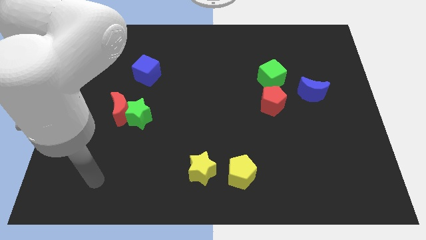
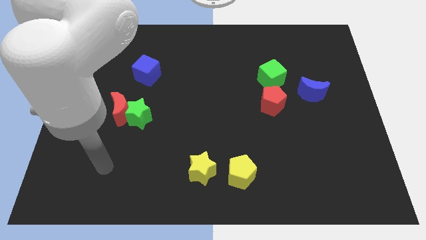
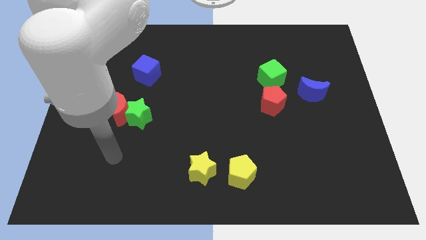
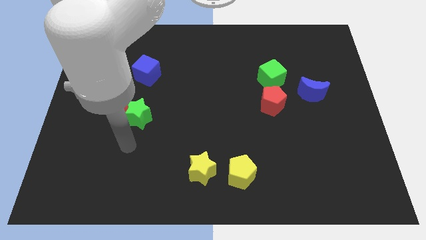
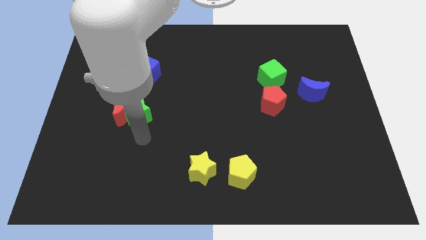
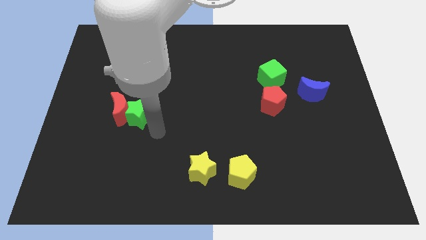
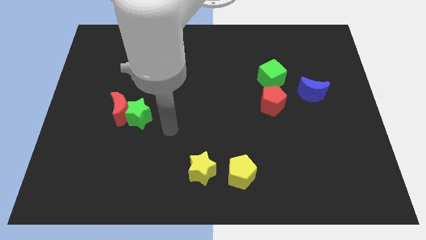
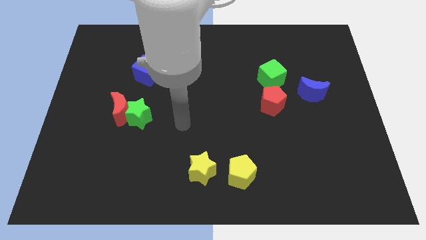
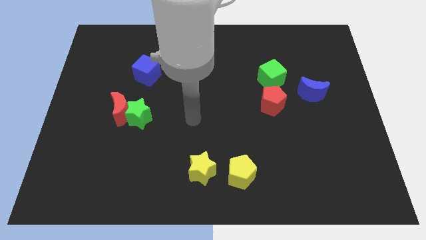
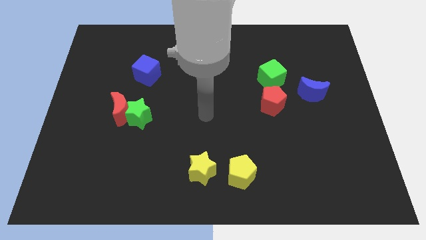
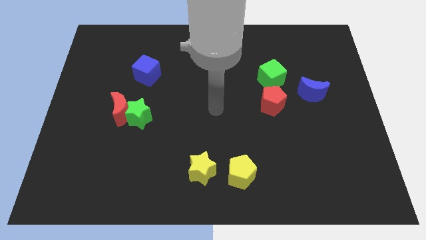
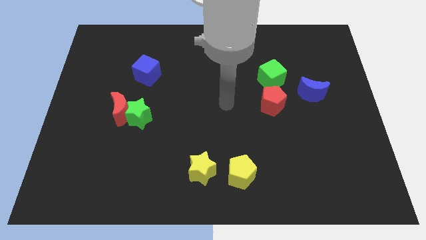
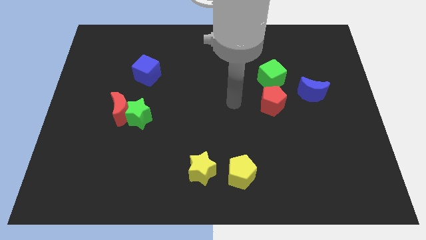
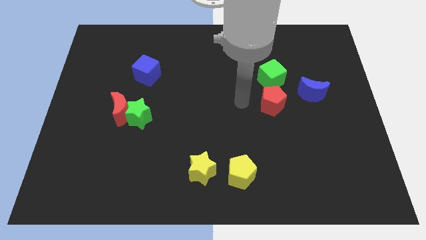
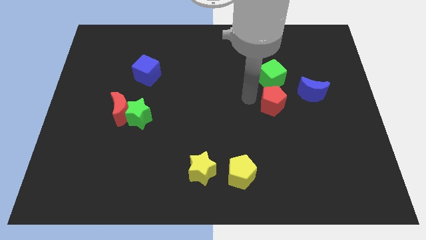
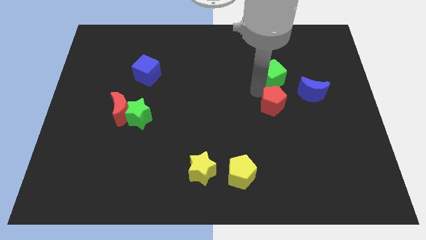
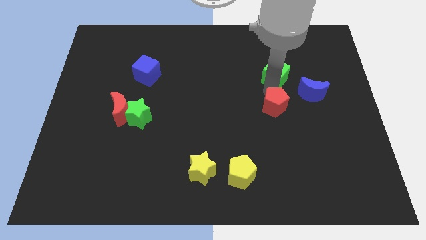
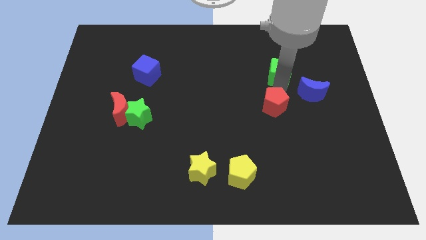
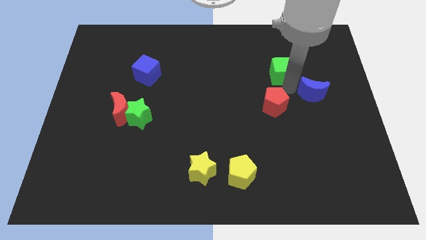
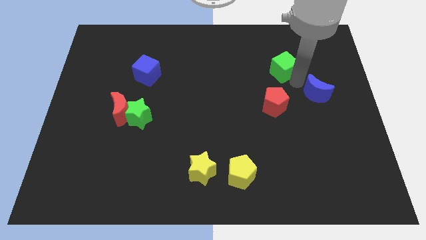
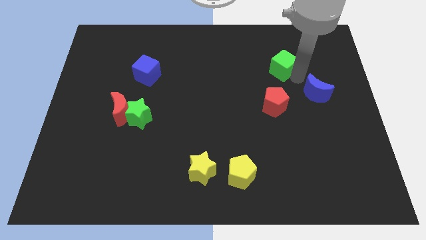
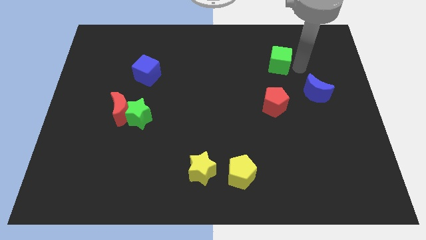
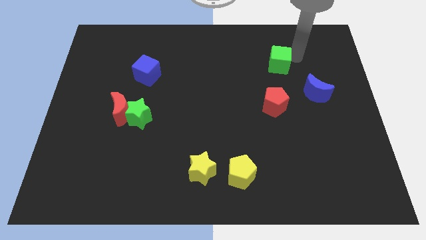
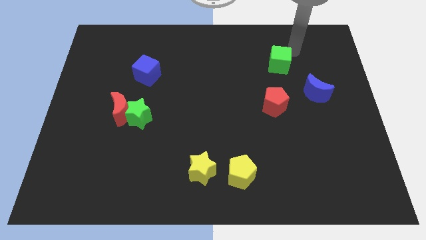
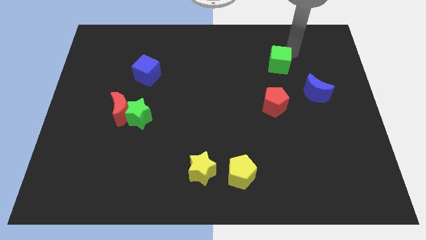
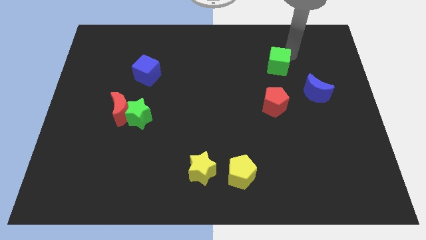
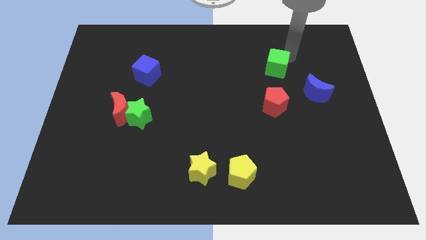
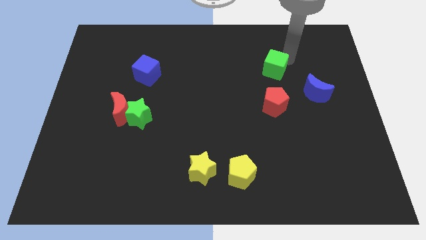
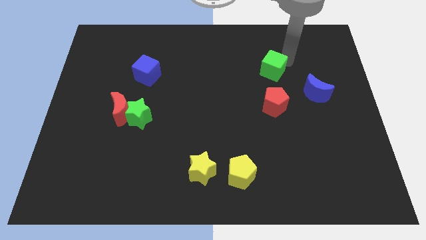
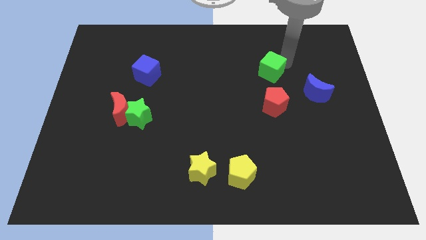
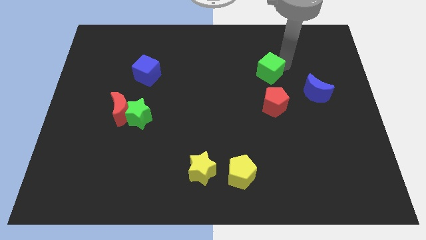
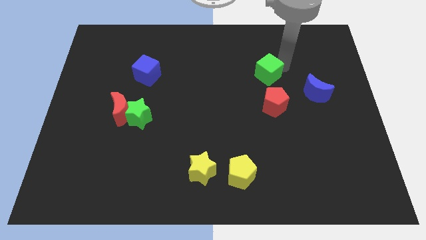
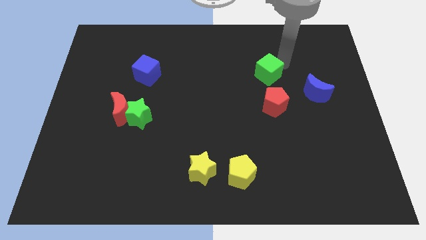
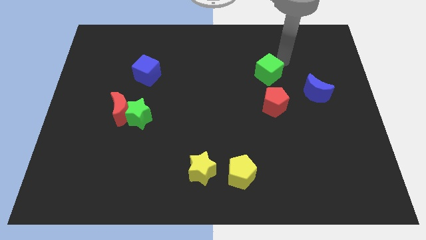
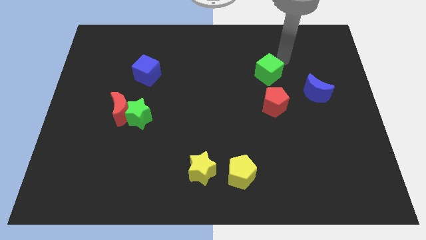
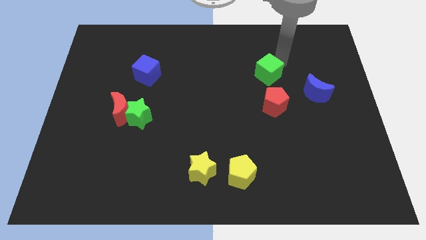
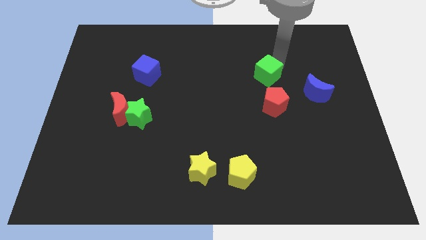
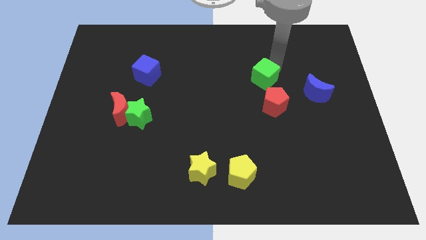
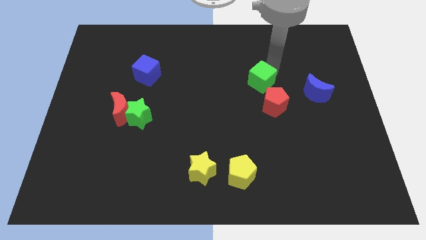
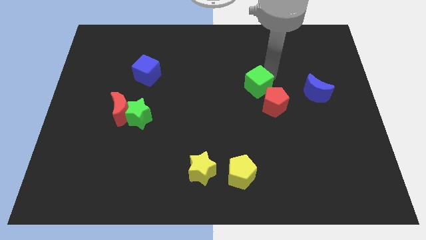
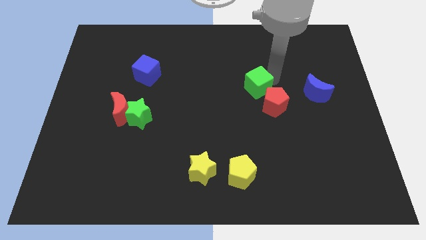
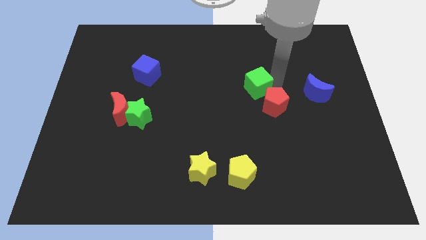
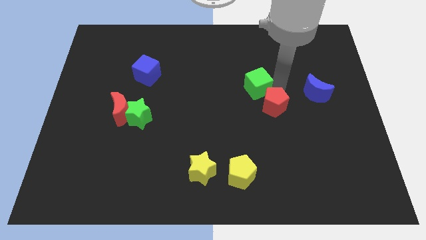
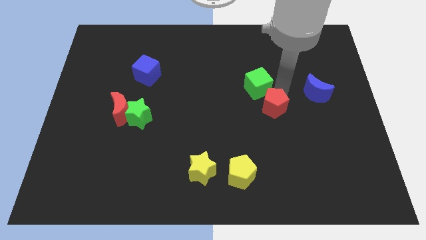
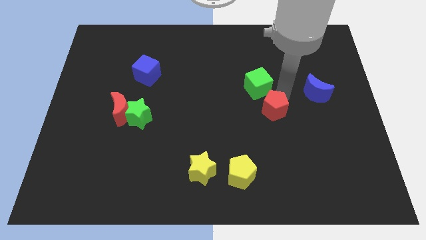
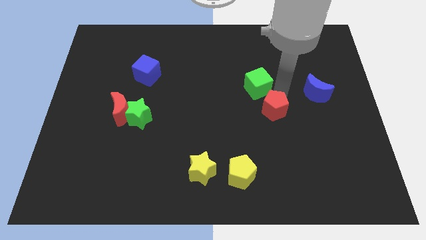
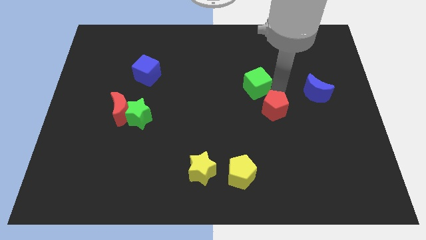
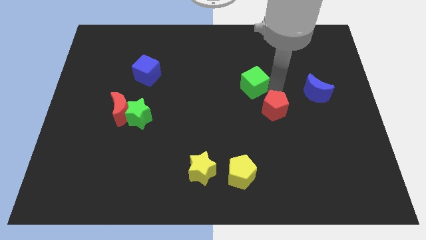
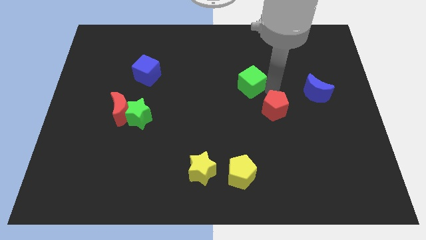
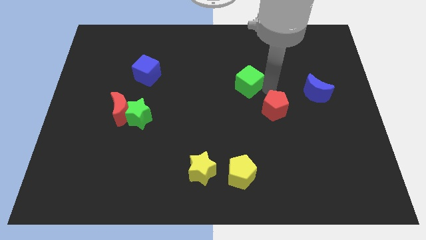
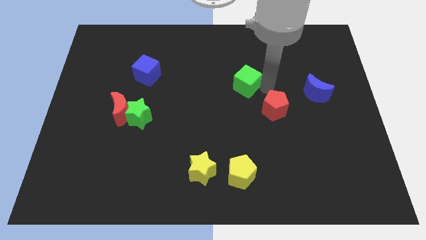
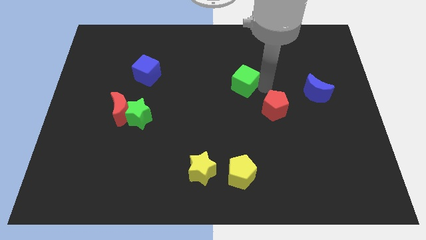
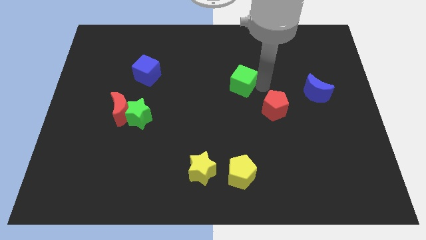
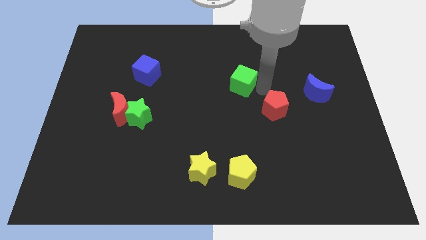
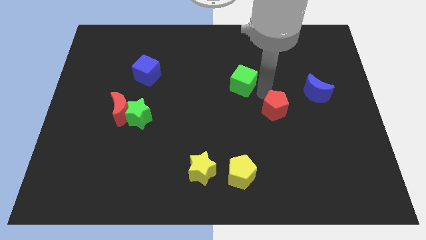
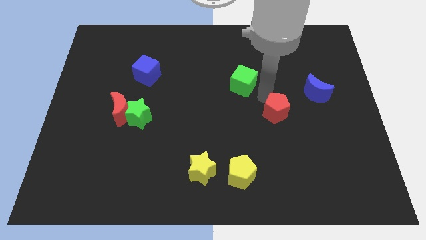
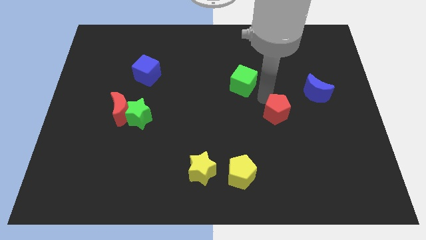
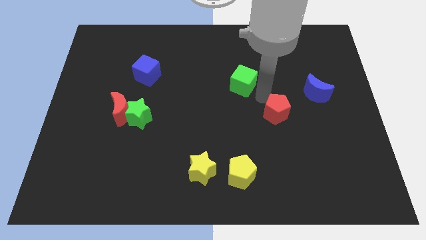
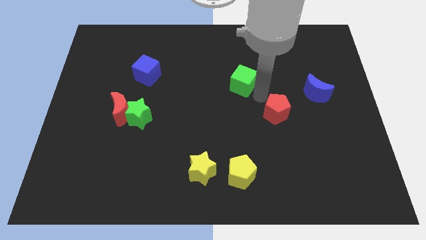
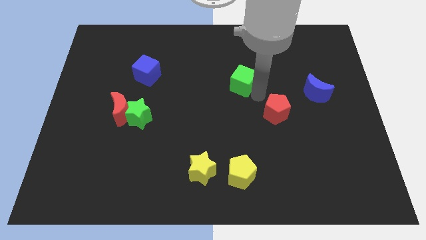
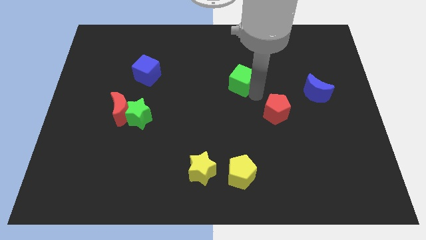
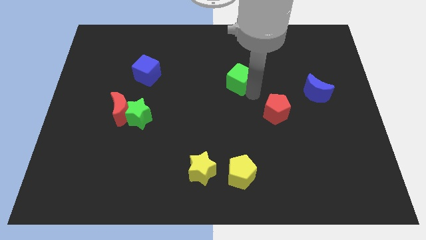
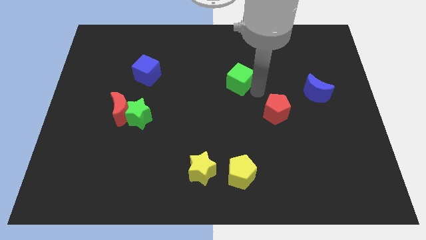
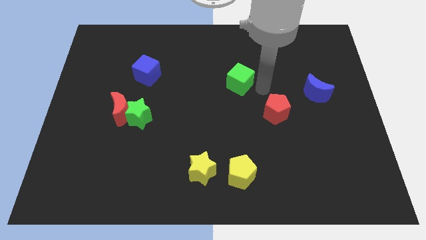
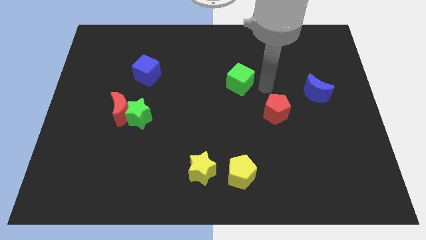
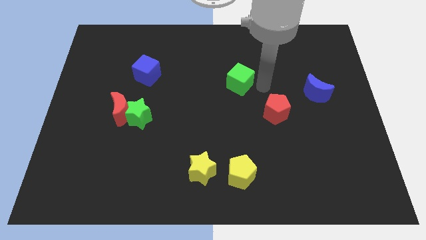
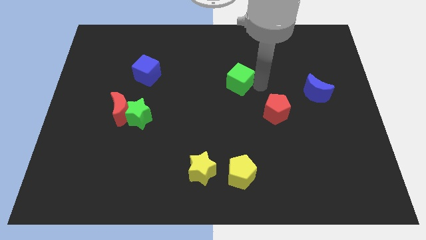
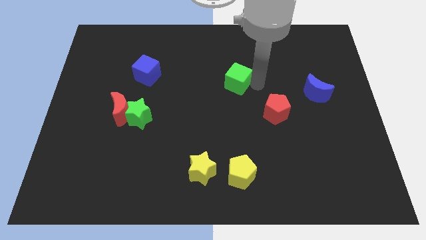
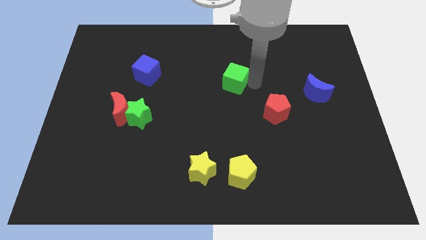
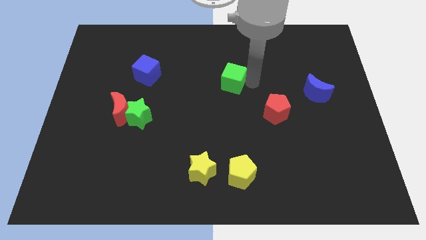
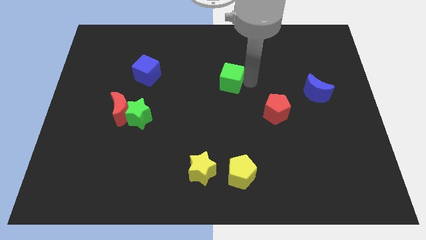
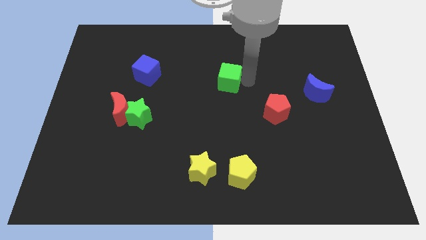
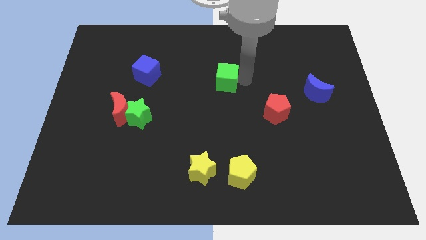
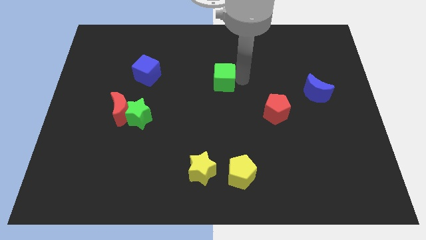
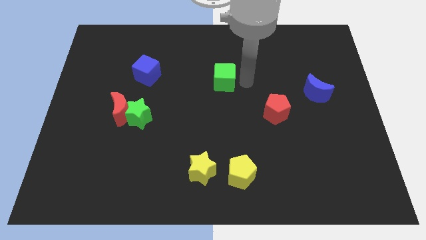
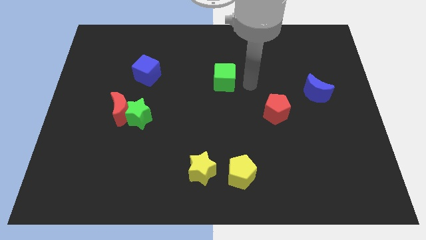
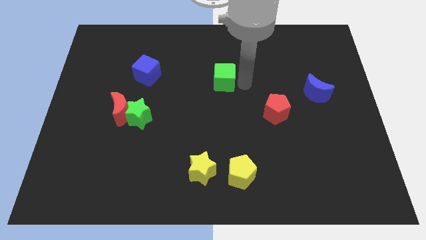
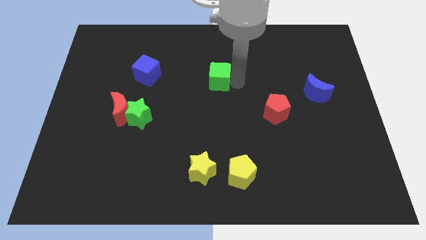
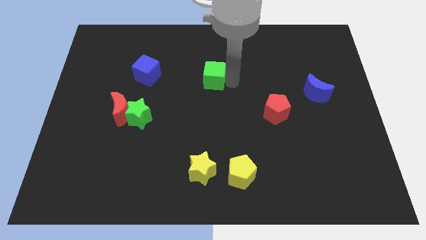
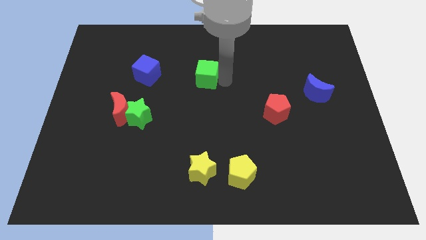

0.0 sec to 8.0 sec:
put the green cube to the right of the blue cube
